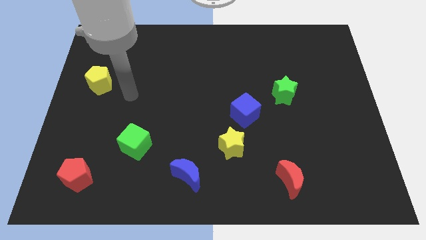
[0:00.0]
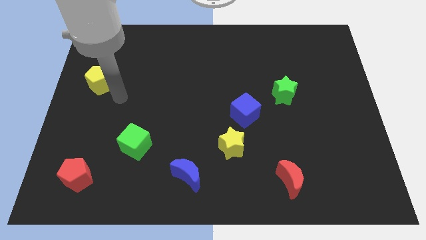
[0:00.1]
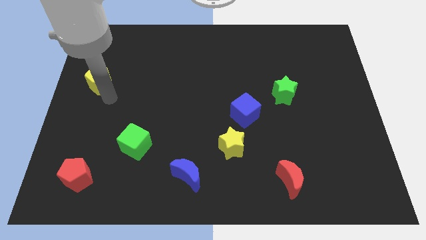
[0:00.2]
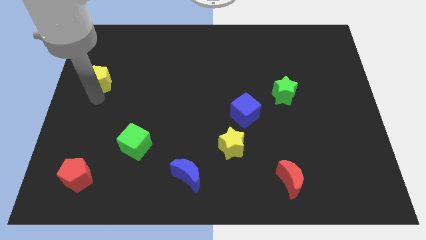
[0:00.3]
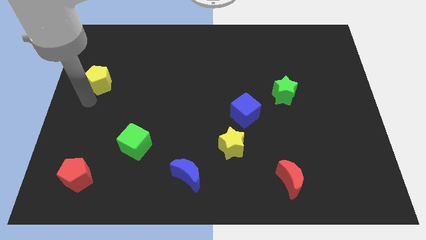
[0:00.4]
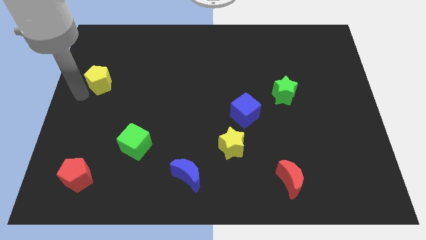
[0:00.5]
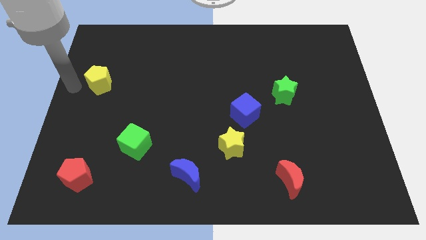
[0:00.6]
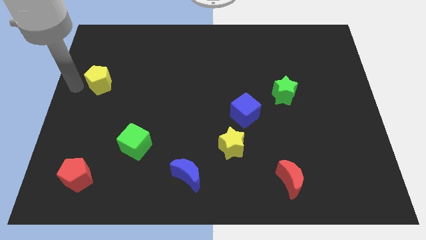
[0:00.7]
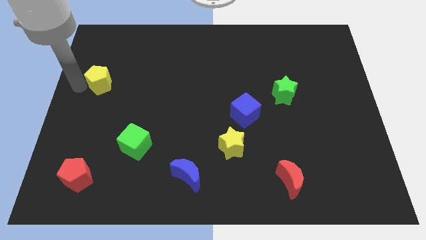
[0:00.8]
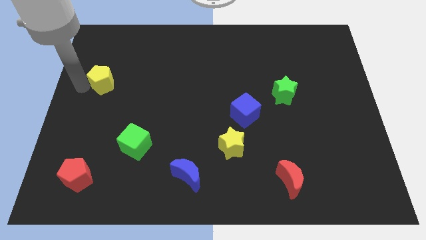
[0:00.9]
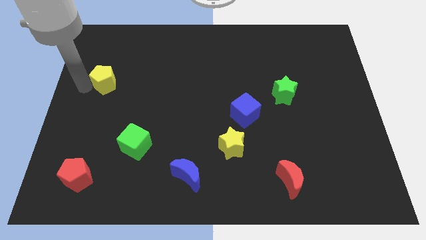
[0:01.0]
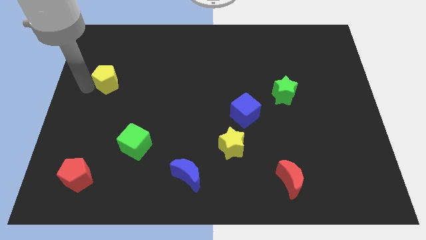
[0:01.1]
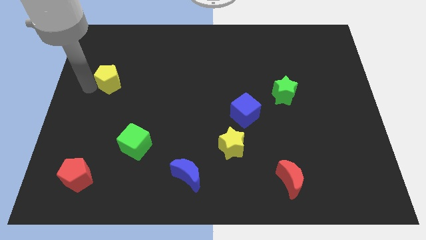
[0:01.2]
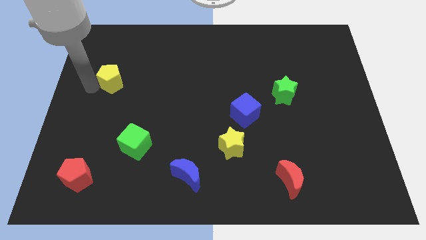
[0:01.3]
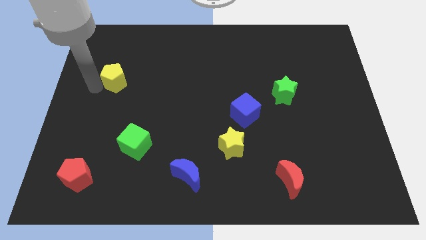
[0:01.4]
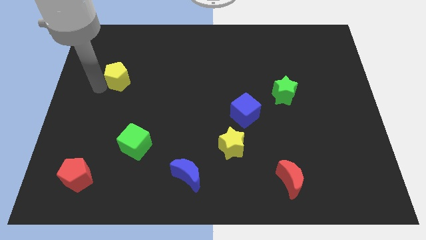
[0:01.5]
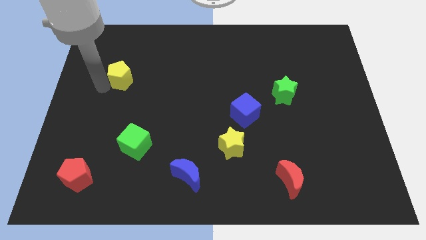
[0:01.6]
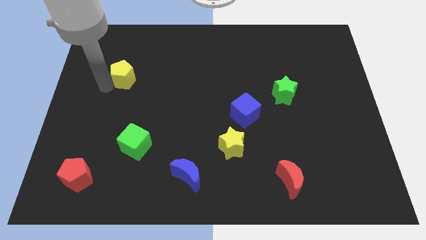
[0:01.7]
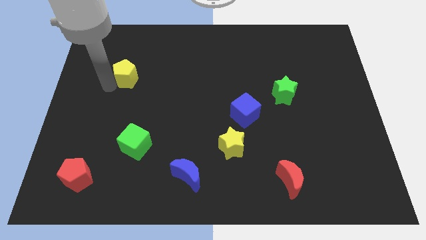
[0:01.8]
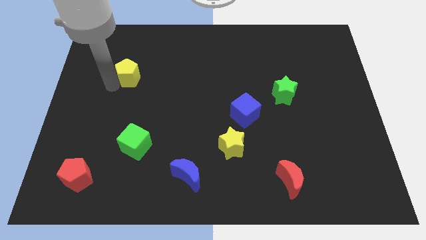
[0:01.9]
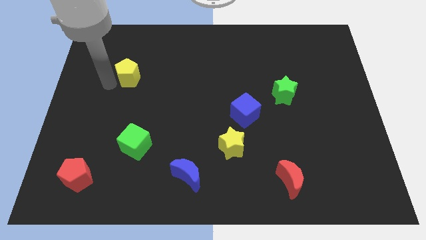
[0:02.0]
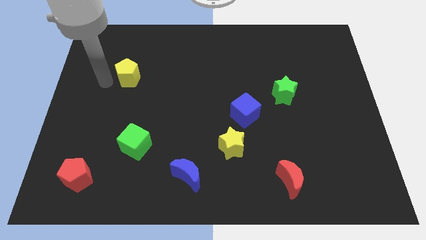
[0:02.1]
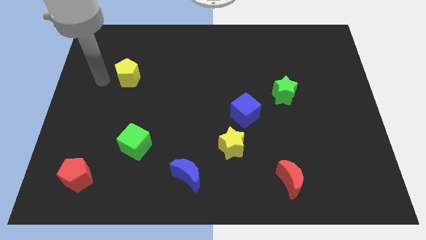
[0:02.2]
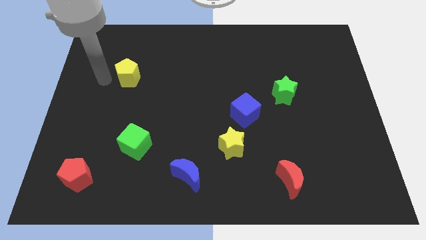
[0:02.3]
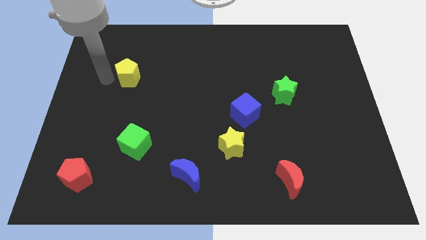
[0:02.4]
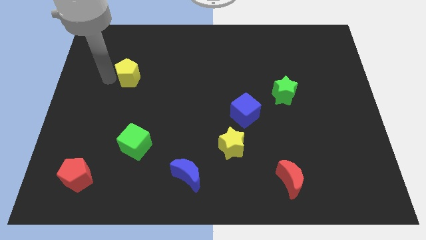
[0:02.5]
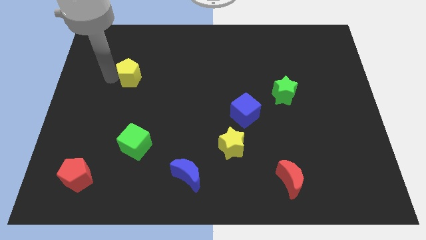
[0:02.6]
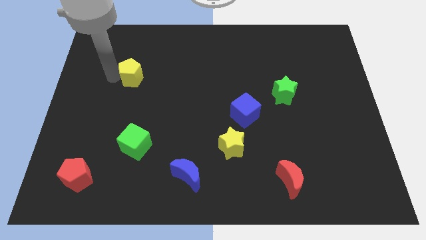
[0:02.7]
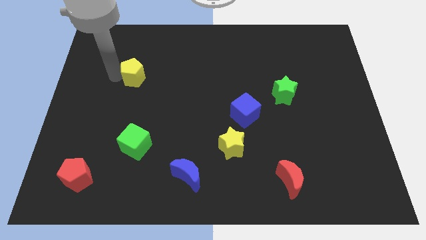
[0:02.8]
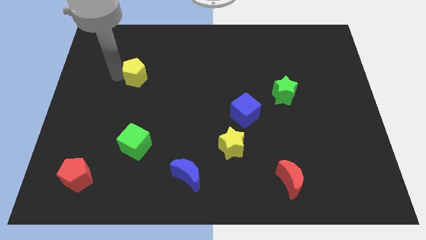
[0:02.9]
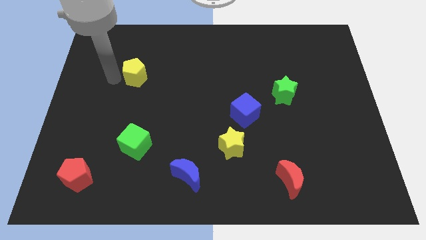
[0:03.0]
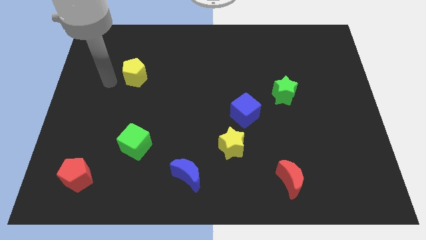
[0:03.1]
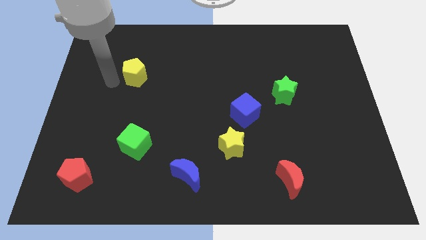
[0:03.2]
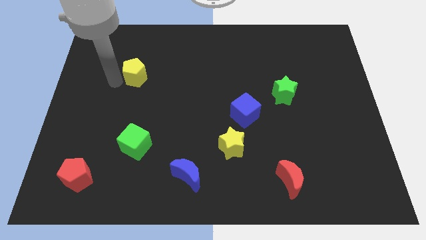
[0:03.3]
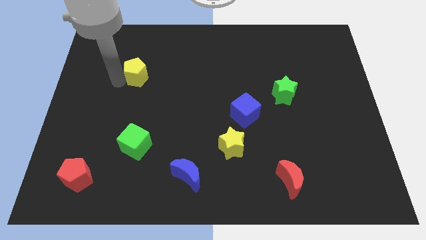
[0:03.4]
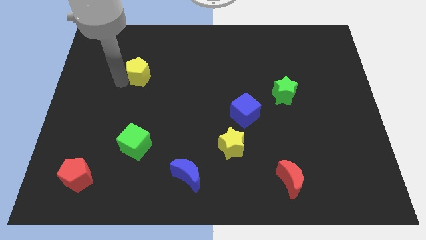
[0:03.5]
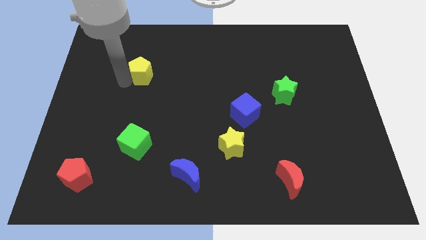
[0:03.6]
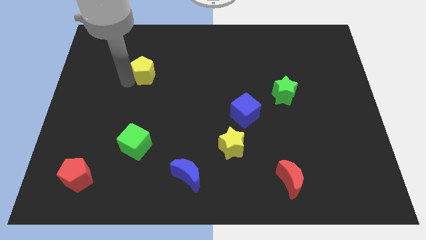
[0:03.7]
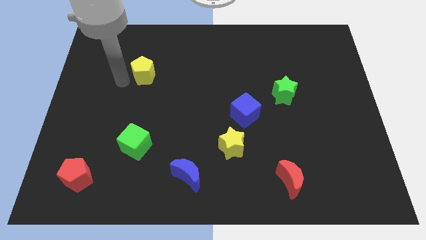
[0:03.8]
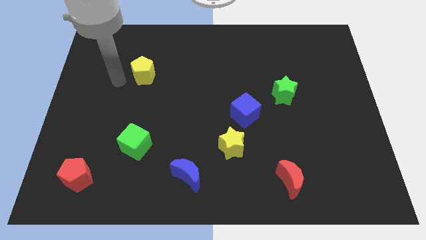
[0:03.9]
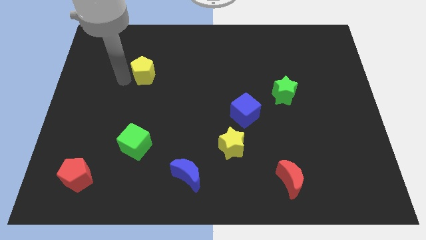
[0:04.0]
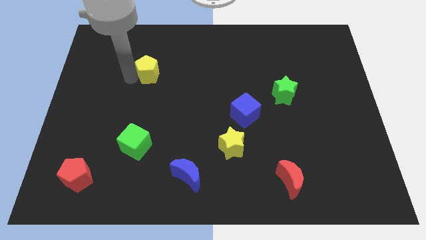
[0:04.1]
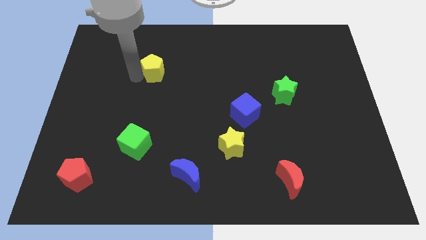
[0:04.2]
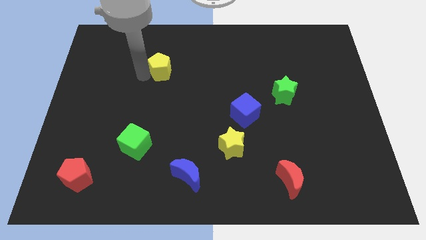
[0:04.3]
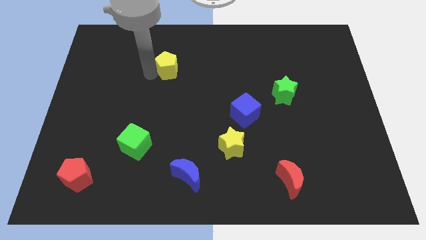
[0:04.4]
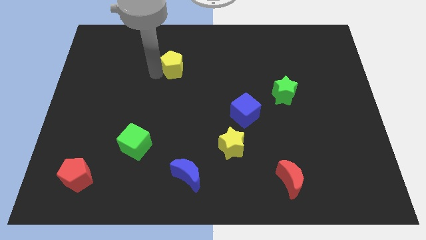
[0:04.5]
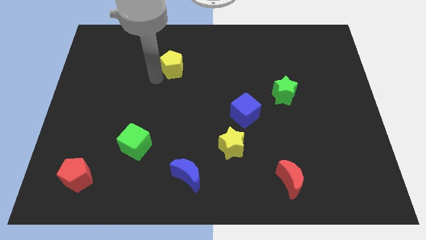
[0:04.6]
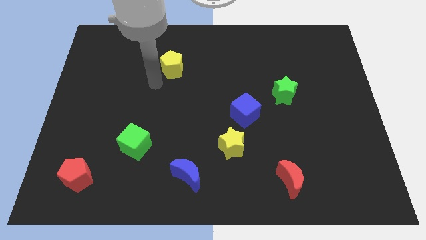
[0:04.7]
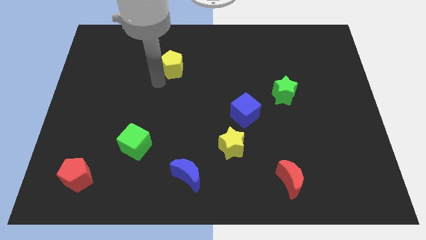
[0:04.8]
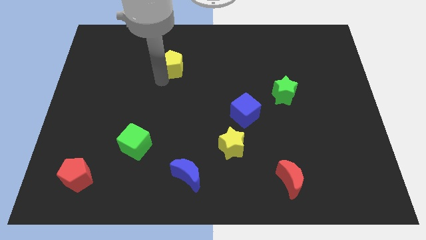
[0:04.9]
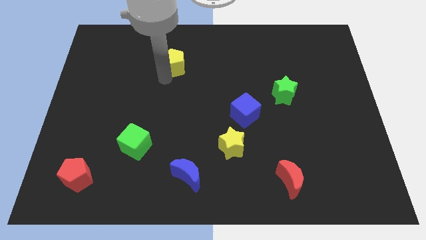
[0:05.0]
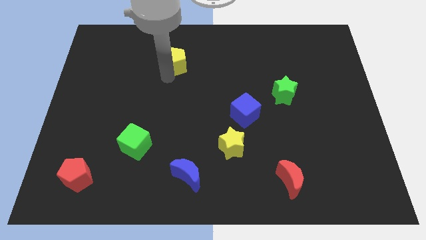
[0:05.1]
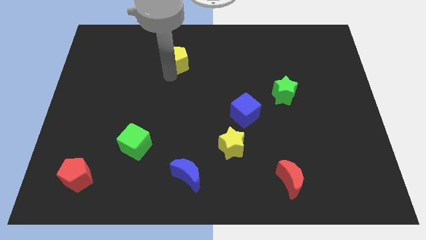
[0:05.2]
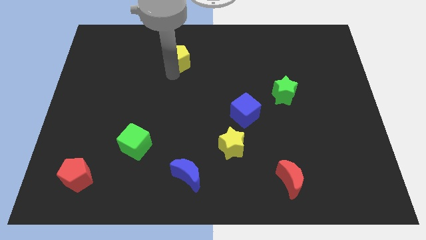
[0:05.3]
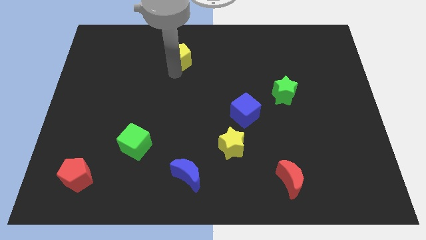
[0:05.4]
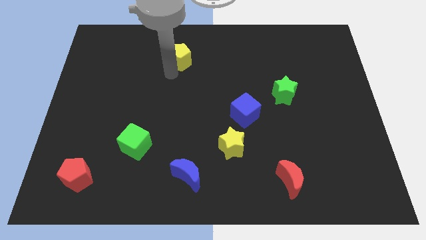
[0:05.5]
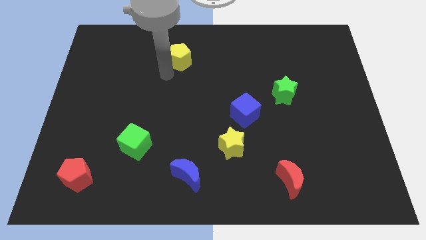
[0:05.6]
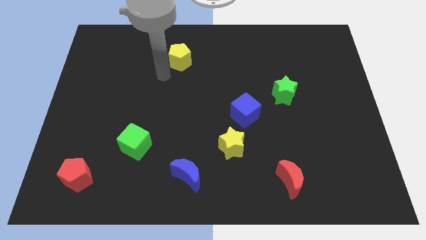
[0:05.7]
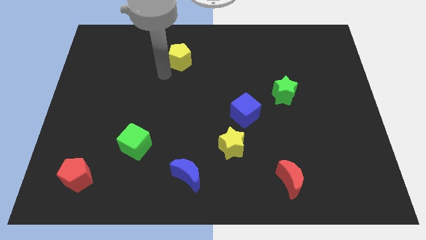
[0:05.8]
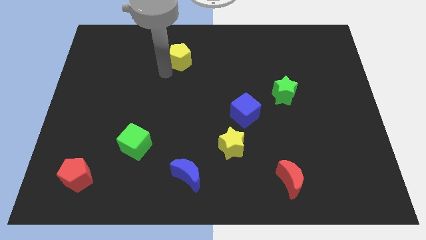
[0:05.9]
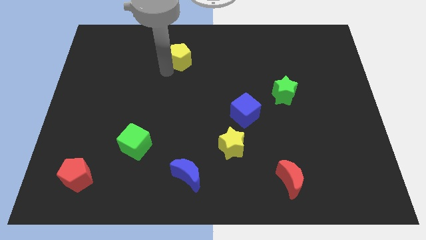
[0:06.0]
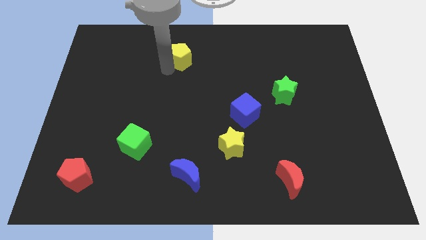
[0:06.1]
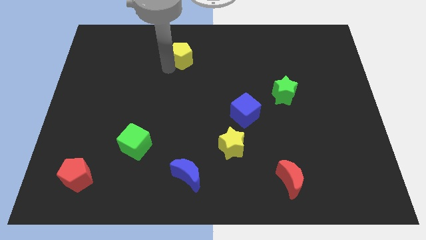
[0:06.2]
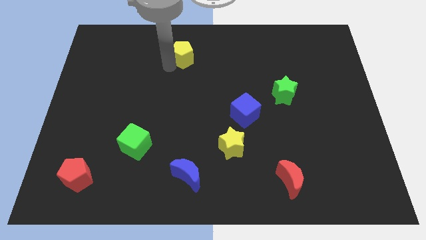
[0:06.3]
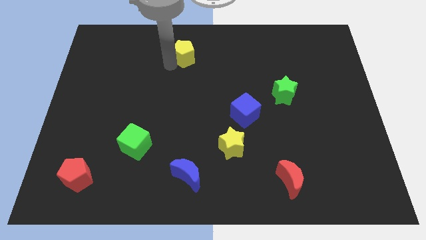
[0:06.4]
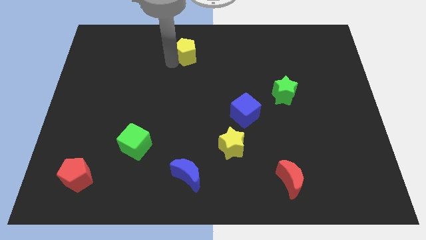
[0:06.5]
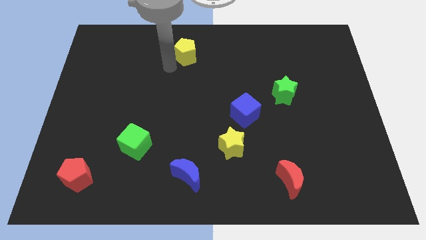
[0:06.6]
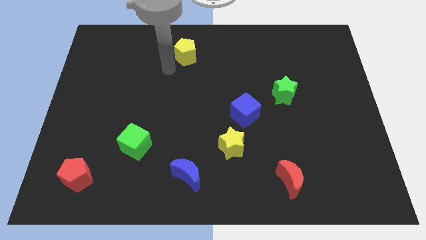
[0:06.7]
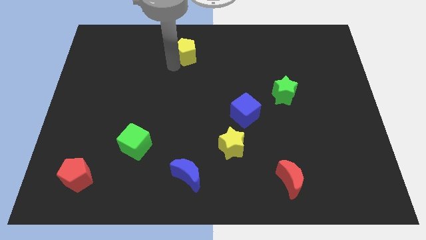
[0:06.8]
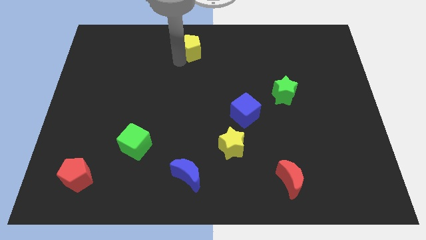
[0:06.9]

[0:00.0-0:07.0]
slide the yellow pentagon to the top side
